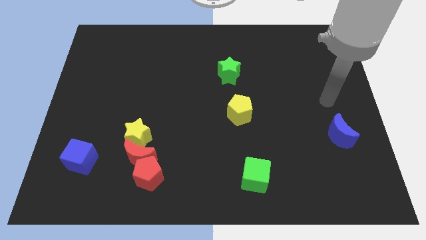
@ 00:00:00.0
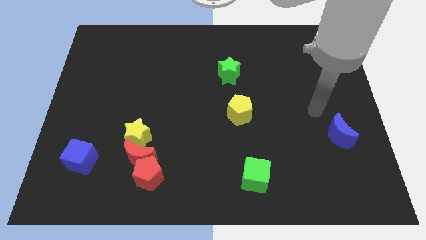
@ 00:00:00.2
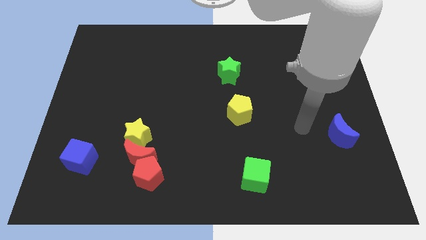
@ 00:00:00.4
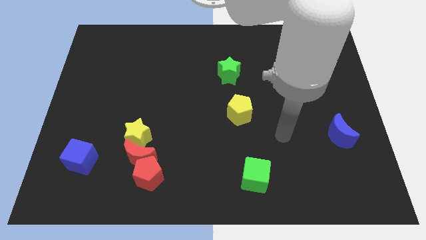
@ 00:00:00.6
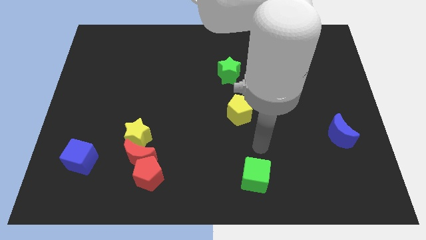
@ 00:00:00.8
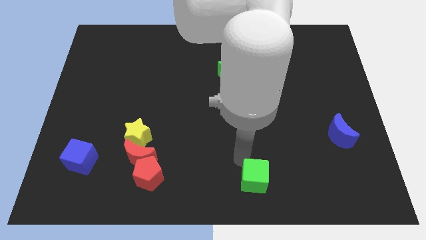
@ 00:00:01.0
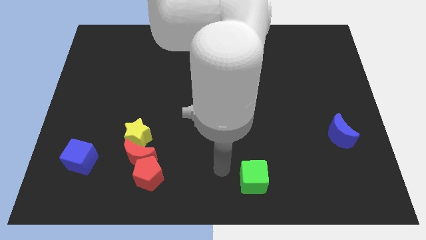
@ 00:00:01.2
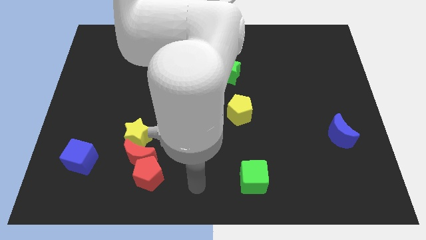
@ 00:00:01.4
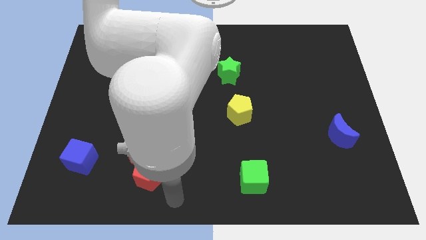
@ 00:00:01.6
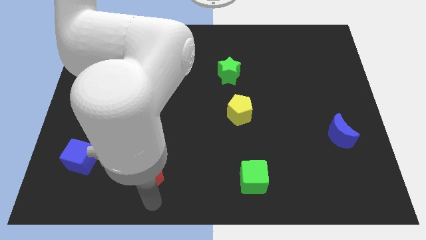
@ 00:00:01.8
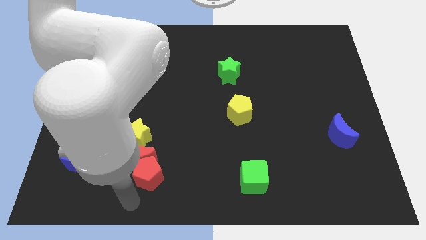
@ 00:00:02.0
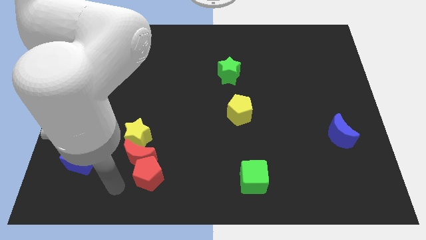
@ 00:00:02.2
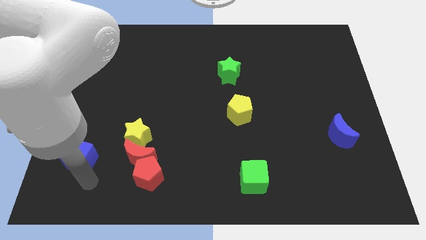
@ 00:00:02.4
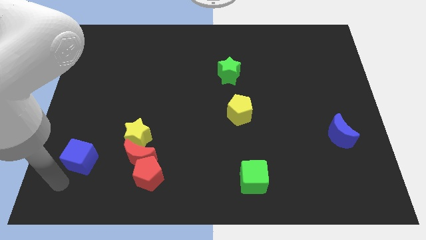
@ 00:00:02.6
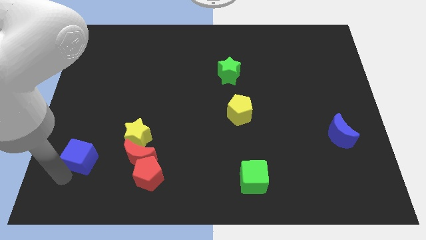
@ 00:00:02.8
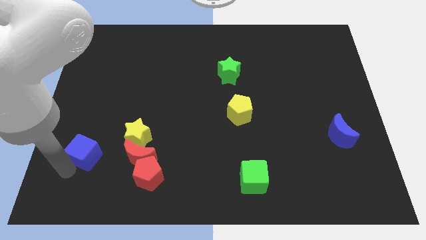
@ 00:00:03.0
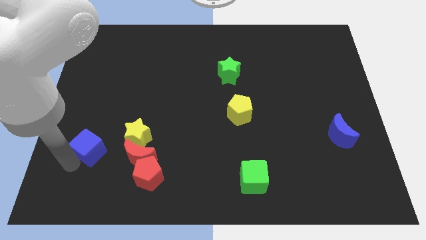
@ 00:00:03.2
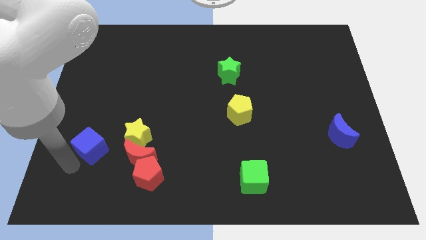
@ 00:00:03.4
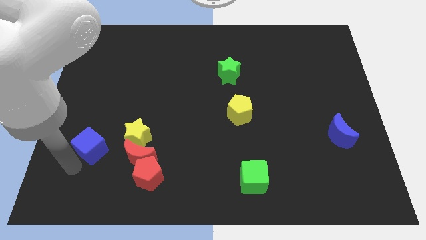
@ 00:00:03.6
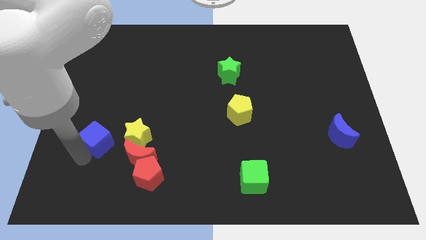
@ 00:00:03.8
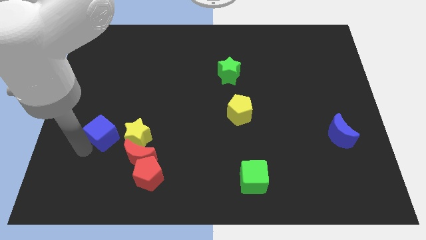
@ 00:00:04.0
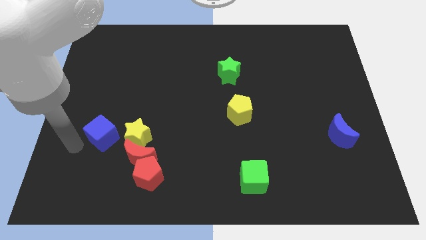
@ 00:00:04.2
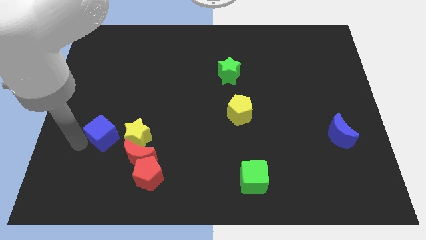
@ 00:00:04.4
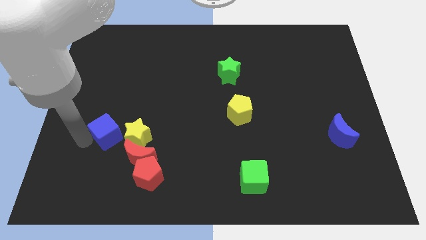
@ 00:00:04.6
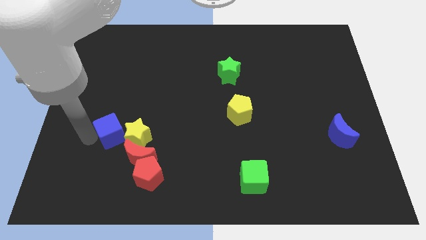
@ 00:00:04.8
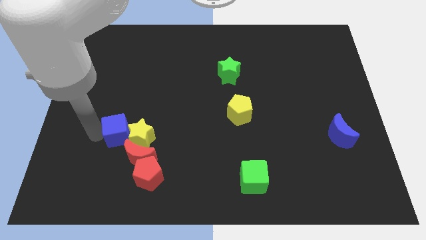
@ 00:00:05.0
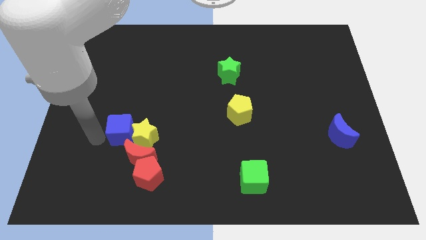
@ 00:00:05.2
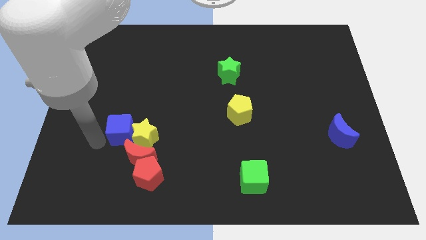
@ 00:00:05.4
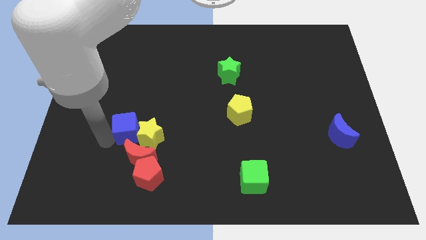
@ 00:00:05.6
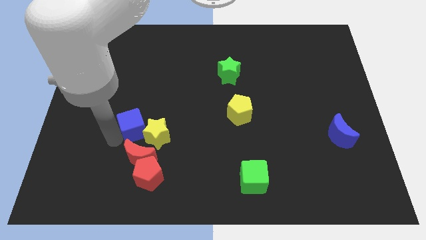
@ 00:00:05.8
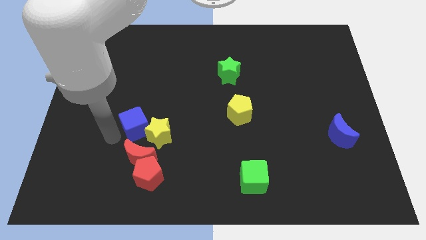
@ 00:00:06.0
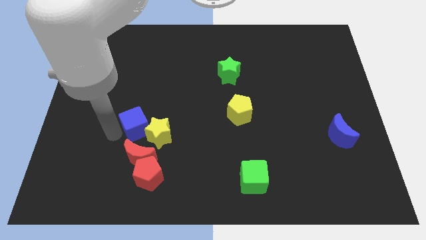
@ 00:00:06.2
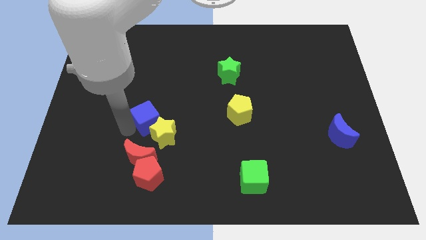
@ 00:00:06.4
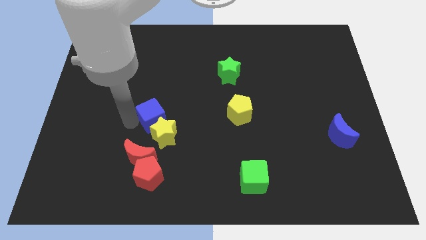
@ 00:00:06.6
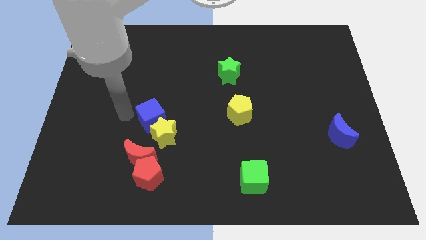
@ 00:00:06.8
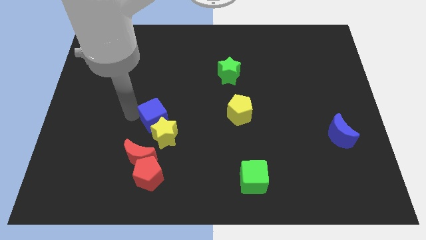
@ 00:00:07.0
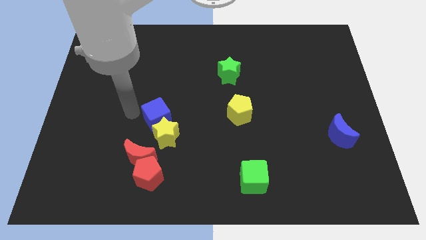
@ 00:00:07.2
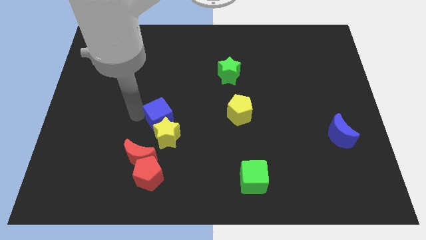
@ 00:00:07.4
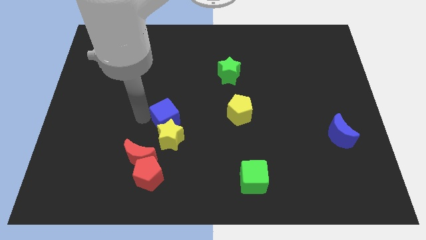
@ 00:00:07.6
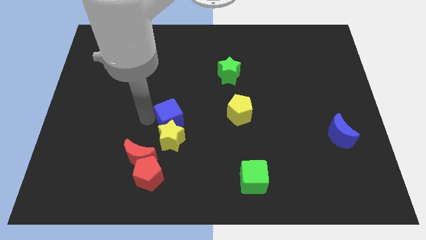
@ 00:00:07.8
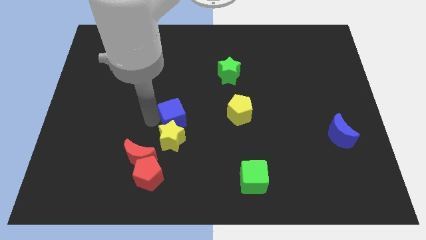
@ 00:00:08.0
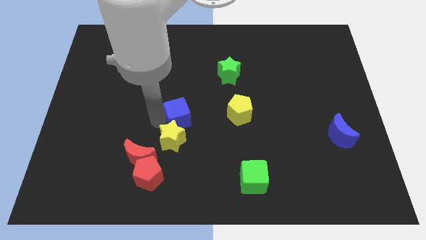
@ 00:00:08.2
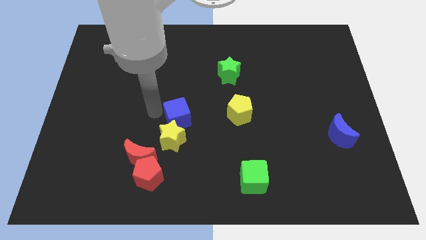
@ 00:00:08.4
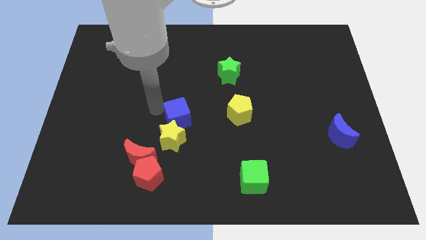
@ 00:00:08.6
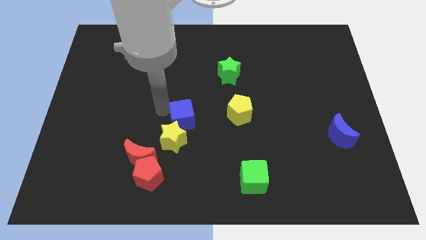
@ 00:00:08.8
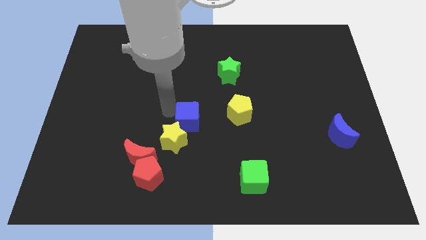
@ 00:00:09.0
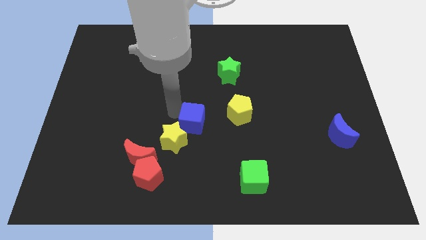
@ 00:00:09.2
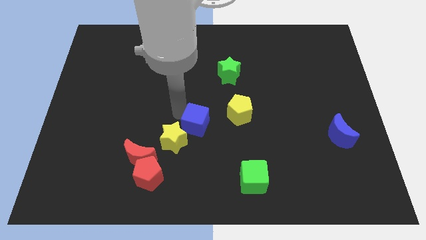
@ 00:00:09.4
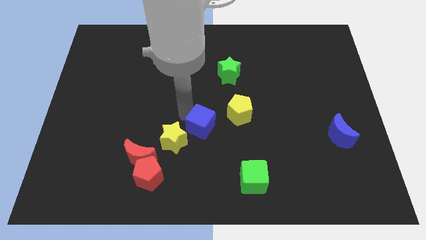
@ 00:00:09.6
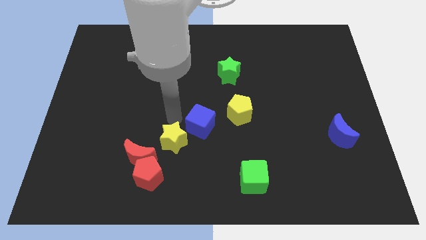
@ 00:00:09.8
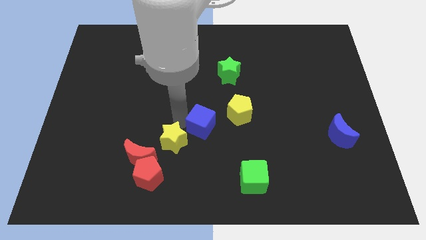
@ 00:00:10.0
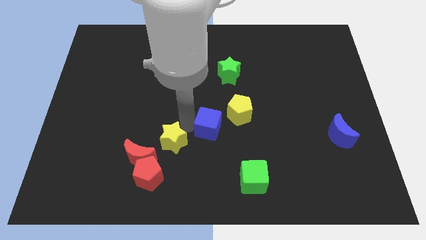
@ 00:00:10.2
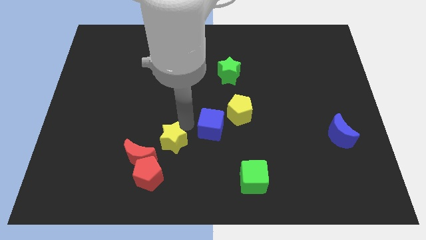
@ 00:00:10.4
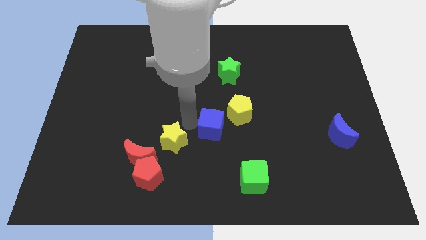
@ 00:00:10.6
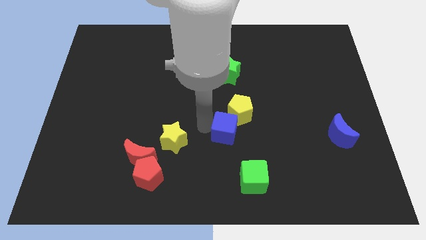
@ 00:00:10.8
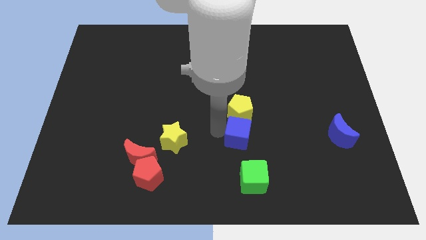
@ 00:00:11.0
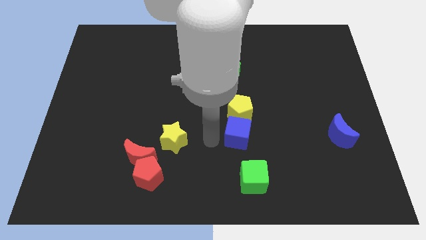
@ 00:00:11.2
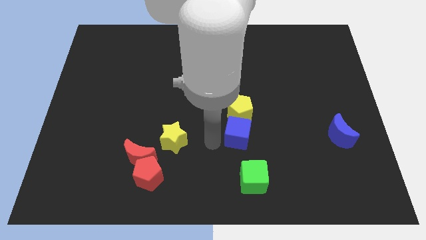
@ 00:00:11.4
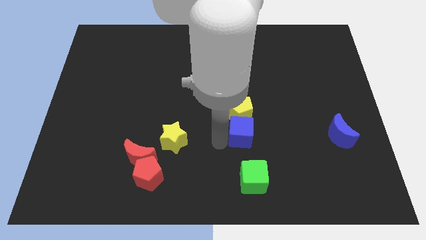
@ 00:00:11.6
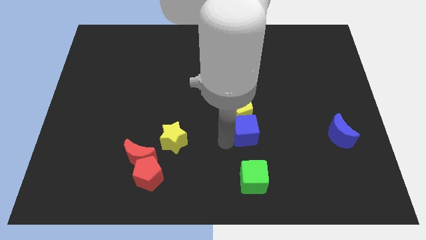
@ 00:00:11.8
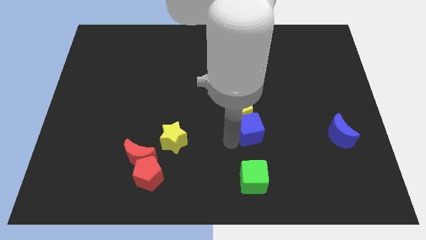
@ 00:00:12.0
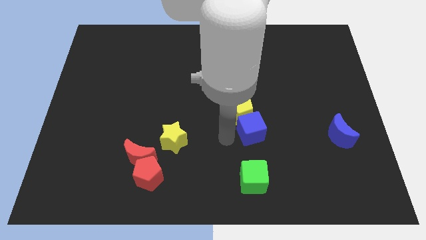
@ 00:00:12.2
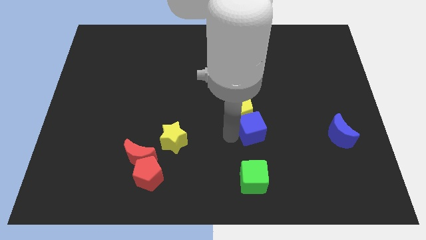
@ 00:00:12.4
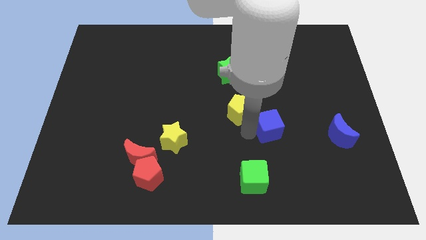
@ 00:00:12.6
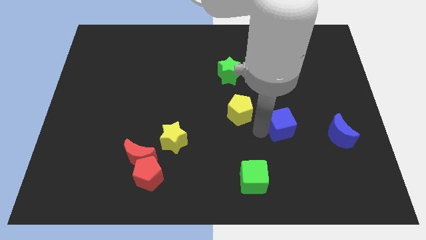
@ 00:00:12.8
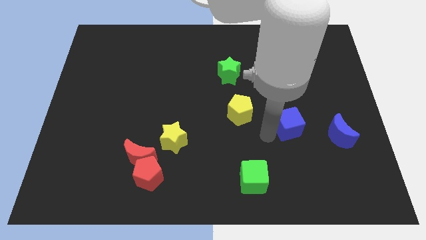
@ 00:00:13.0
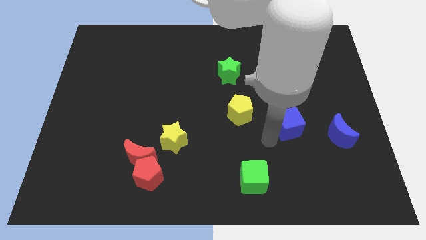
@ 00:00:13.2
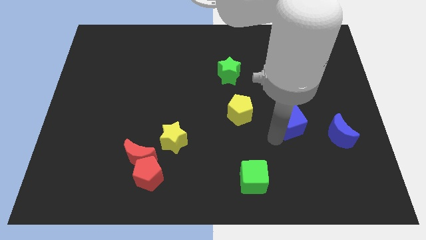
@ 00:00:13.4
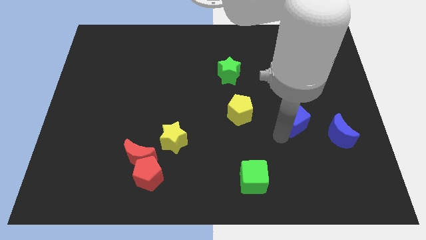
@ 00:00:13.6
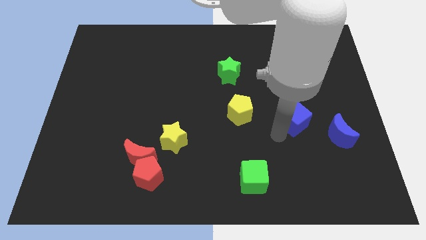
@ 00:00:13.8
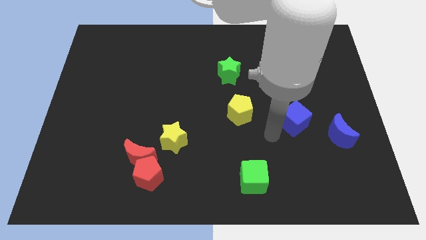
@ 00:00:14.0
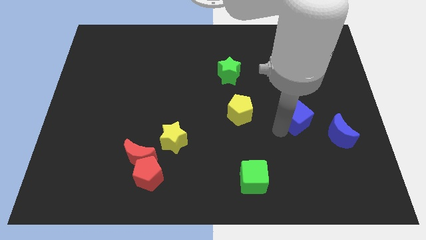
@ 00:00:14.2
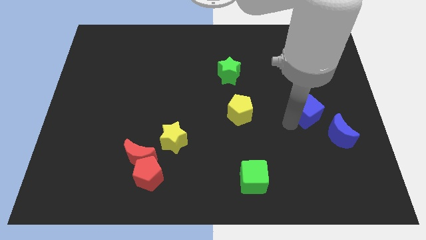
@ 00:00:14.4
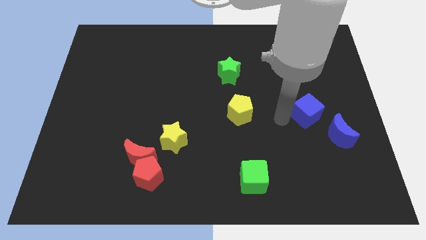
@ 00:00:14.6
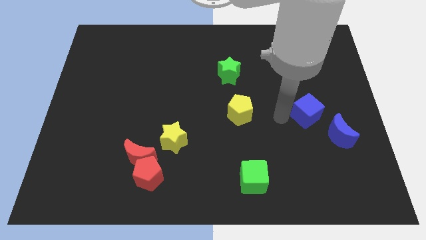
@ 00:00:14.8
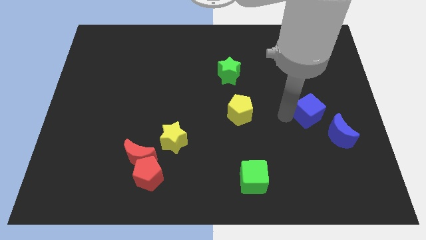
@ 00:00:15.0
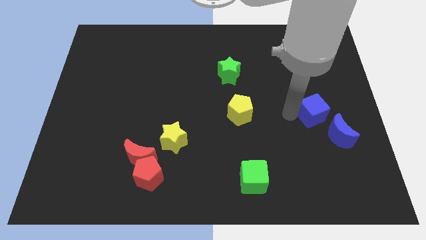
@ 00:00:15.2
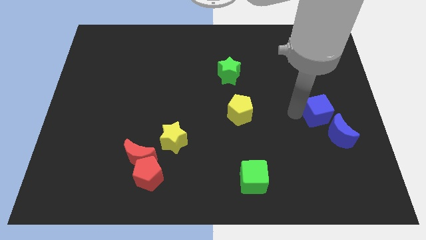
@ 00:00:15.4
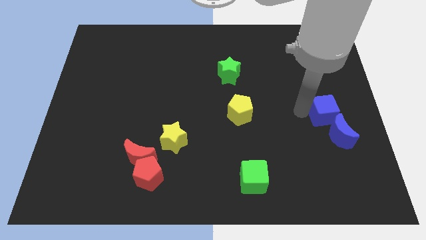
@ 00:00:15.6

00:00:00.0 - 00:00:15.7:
push the blue cube to the right side of the board
